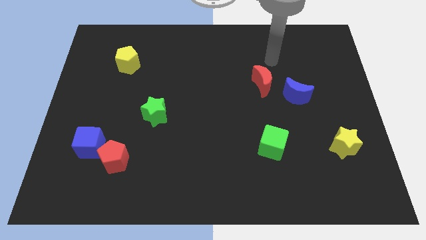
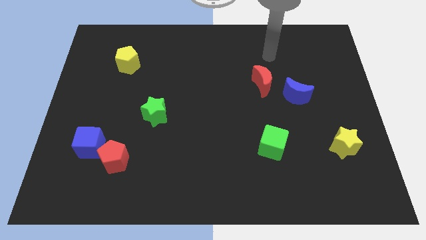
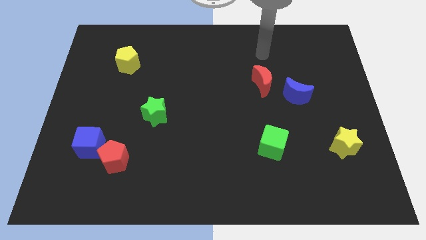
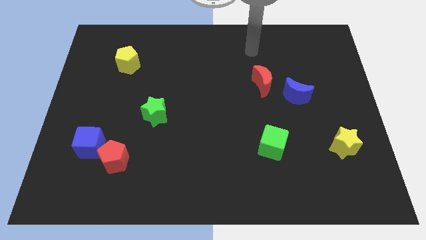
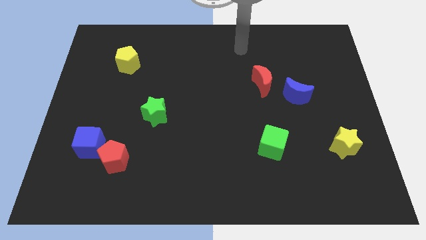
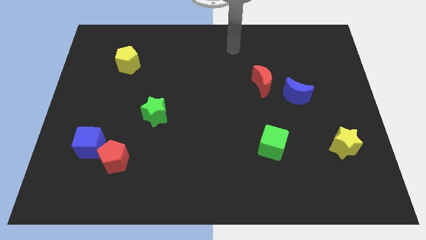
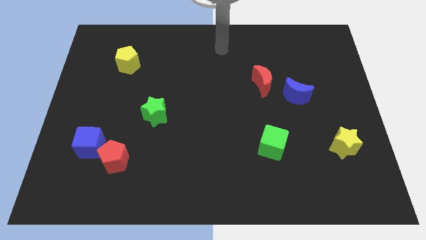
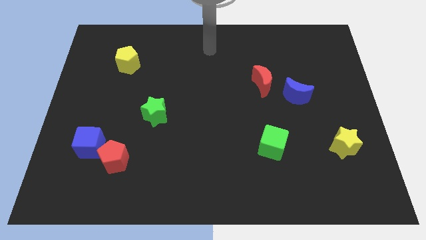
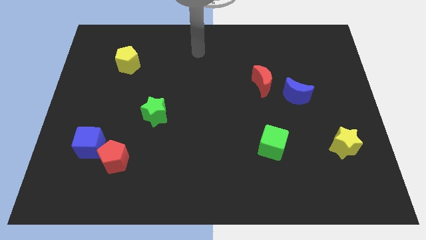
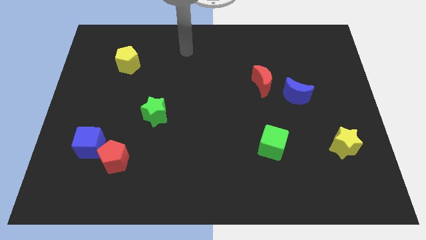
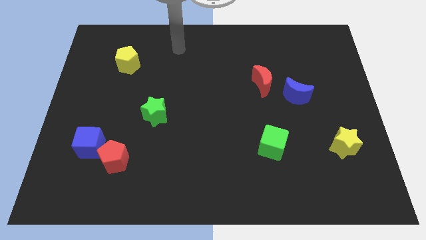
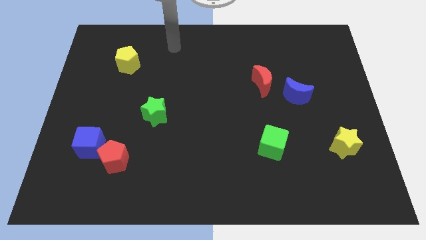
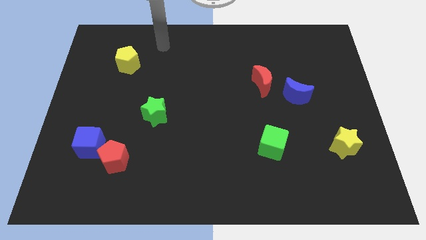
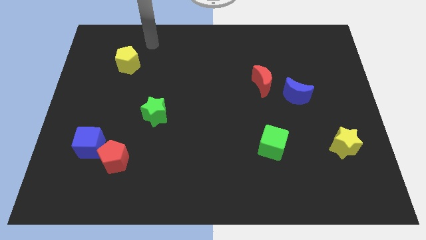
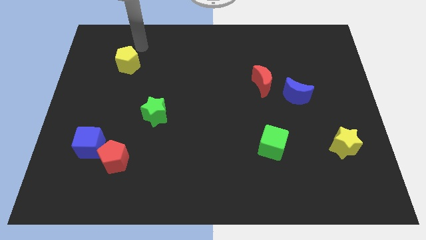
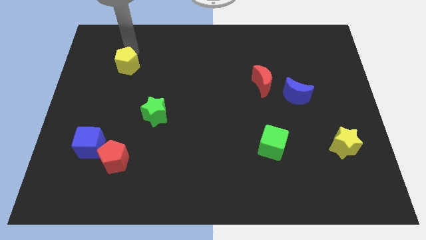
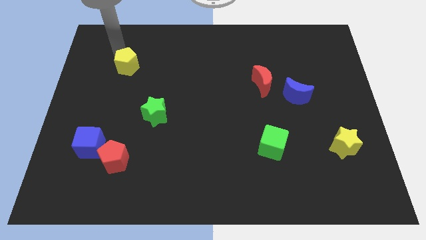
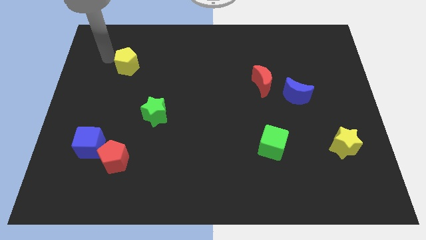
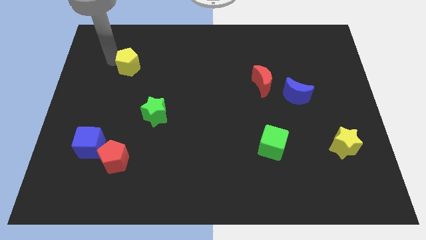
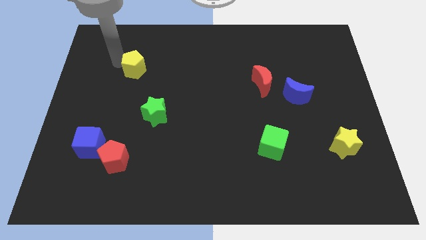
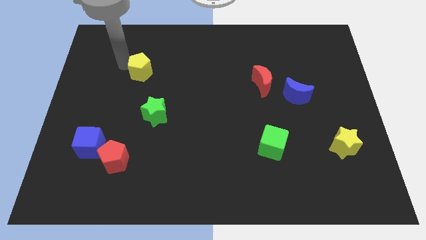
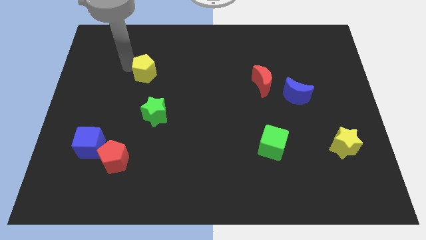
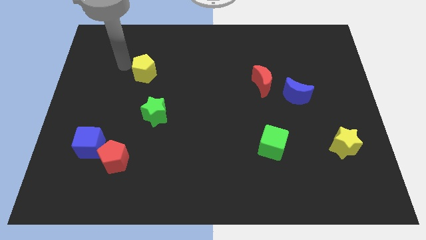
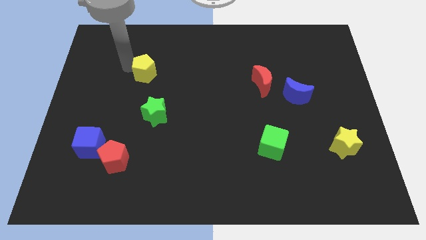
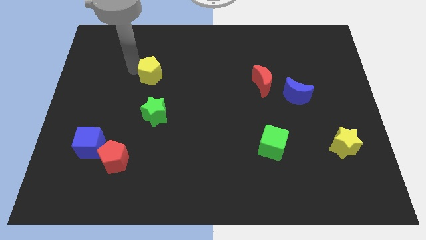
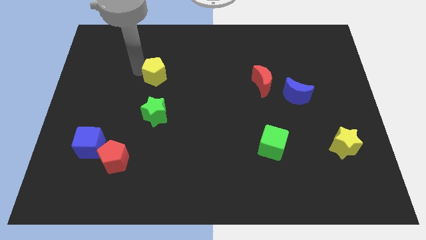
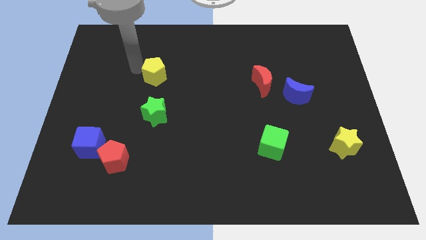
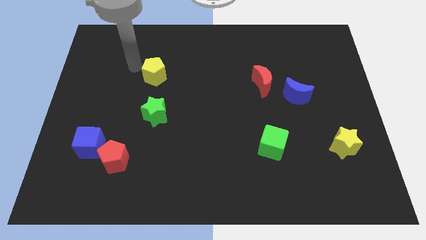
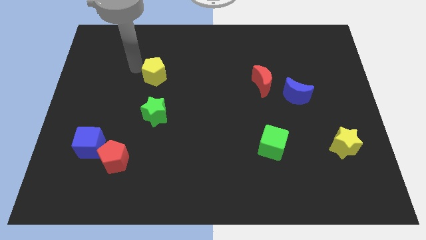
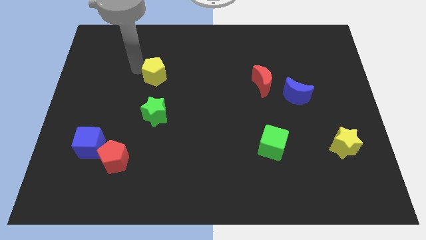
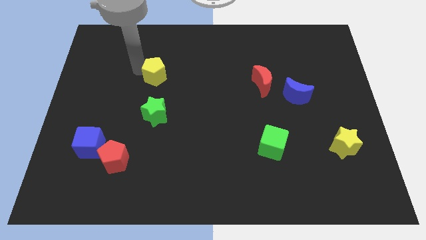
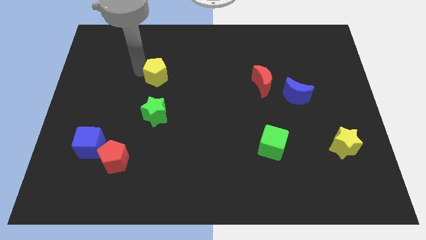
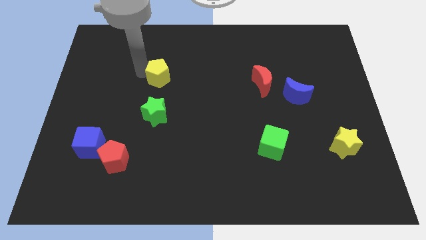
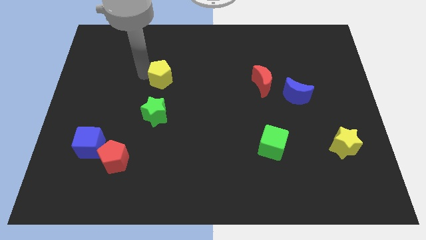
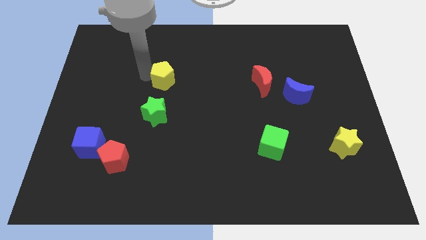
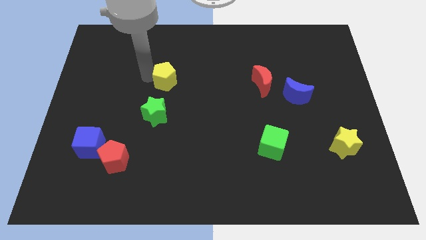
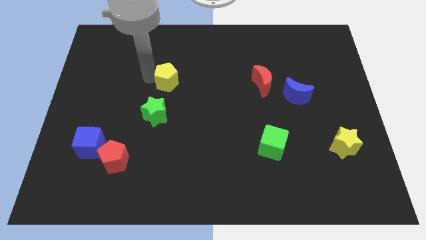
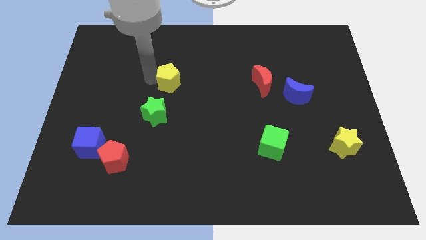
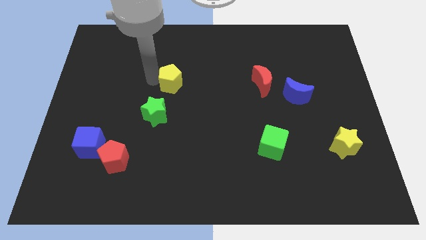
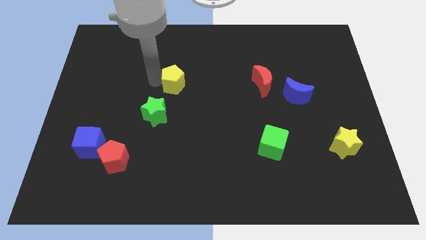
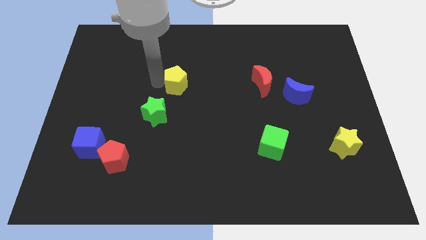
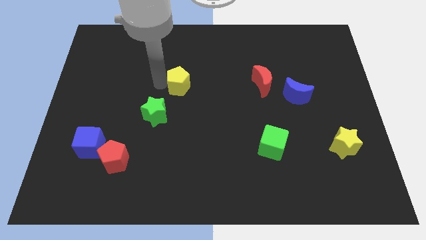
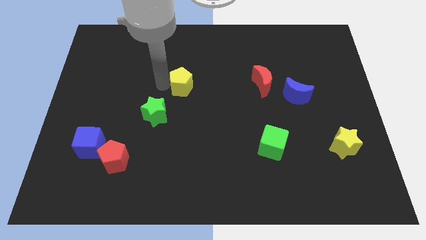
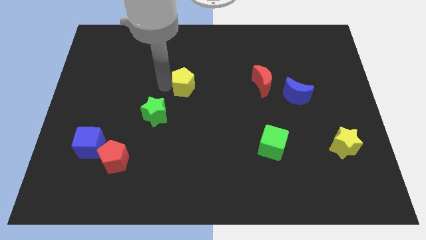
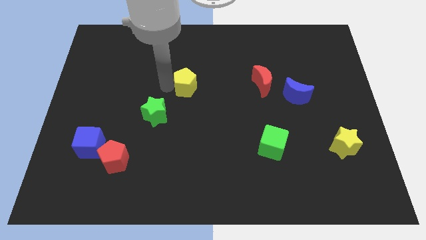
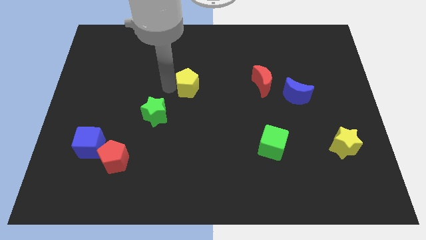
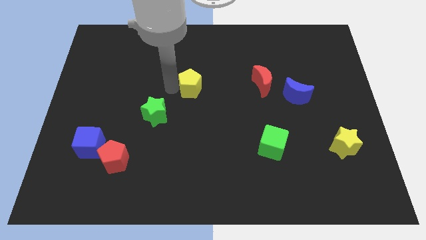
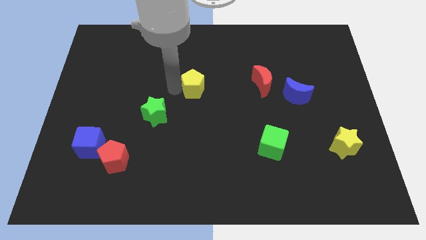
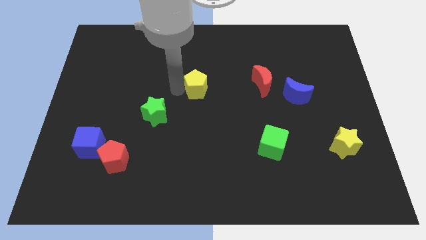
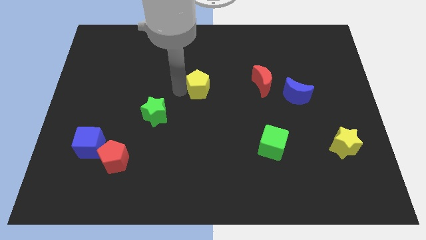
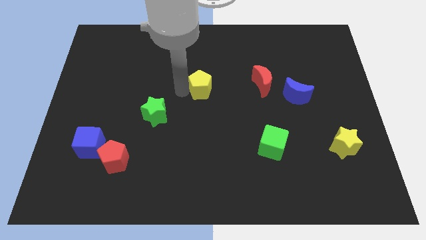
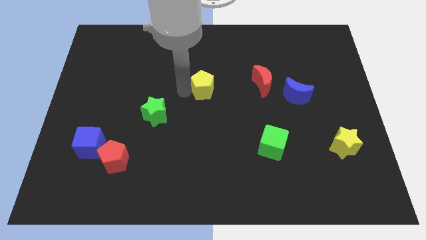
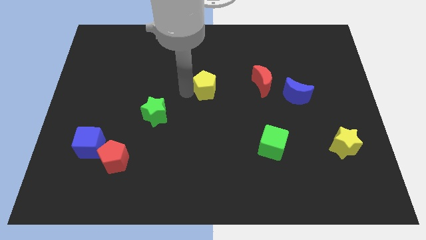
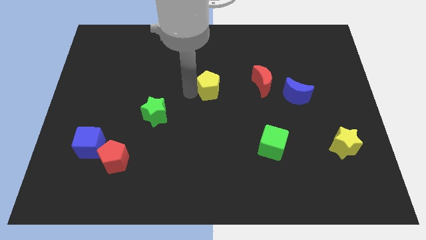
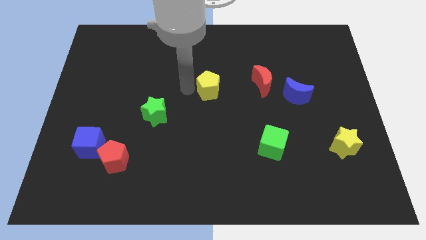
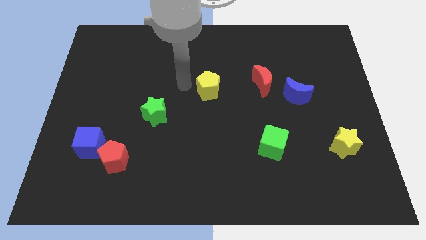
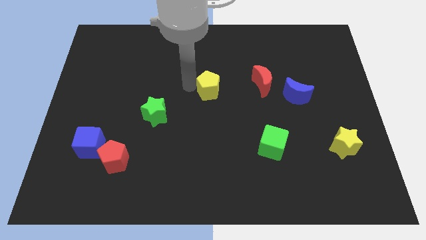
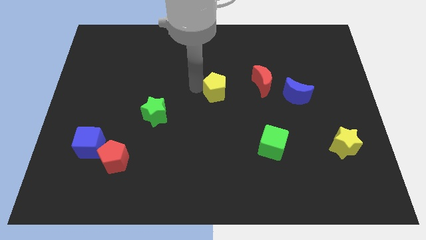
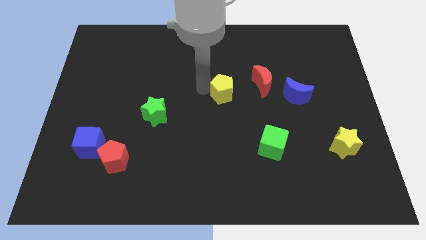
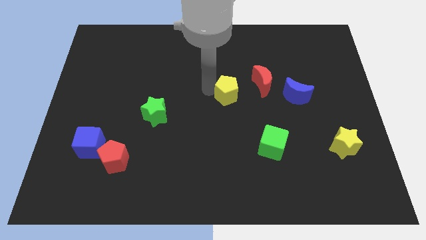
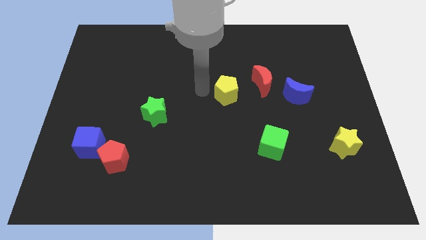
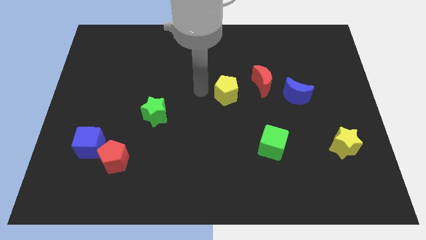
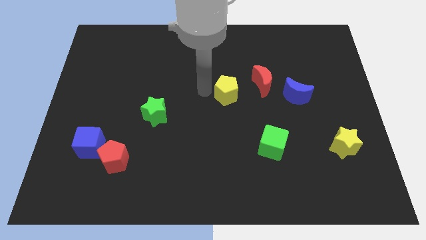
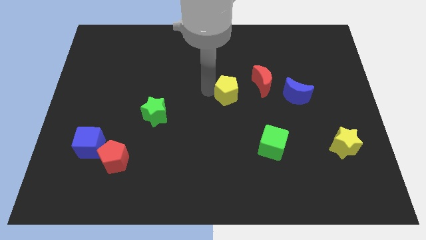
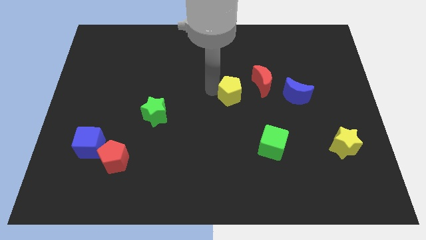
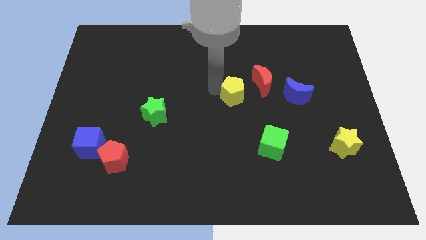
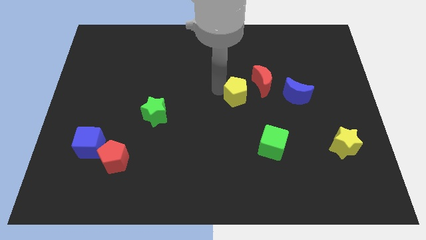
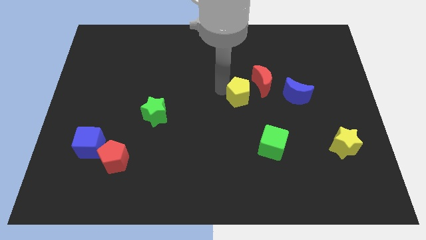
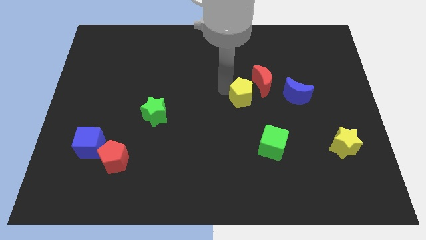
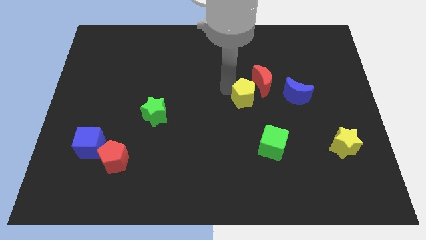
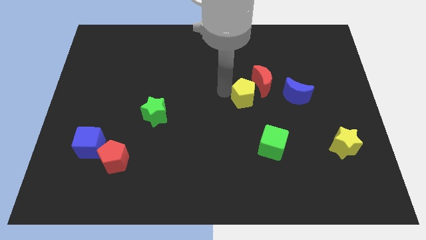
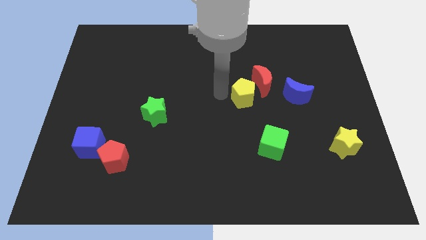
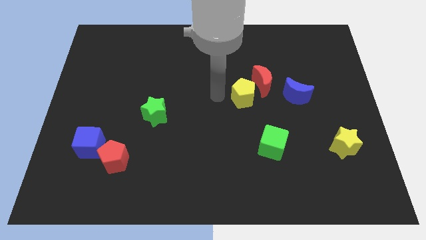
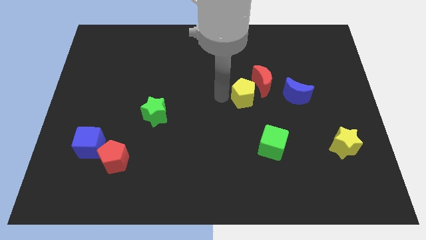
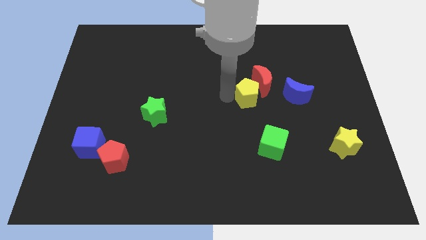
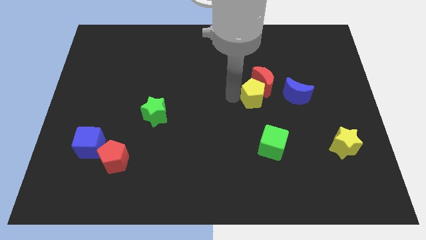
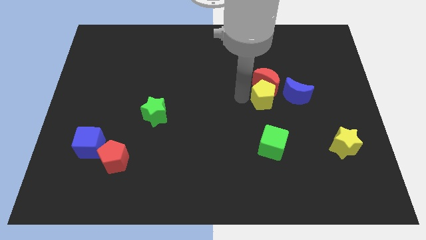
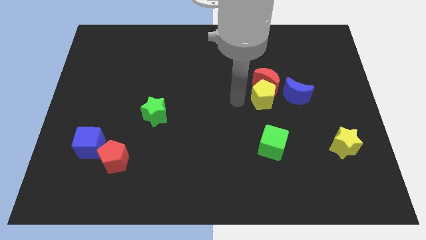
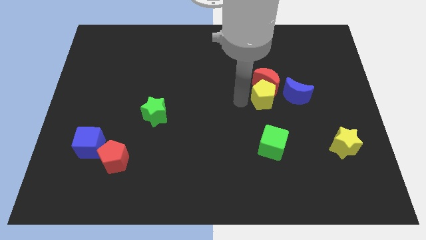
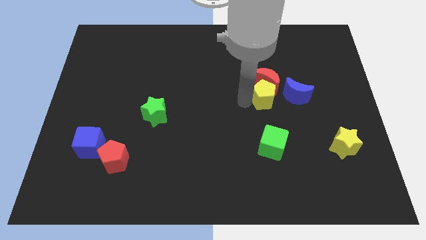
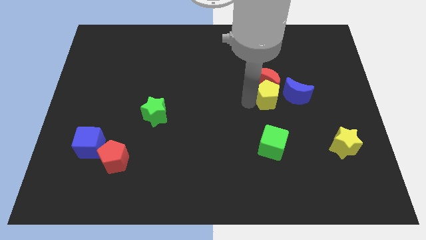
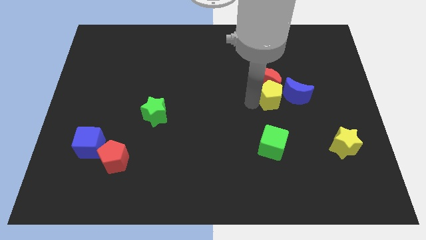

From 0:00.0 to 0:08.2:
move the yellow pentagon to the blue moon

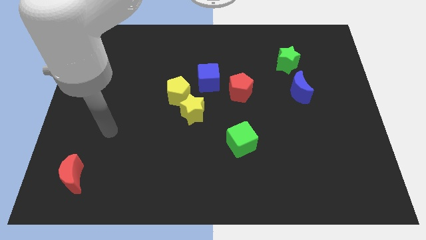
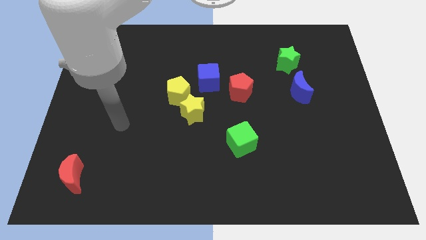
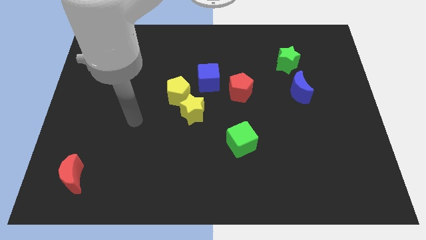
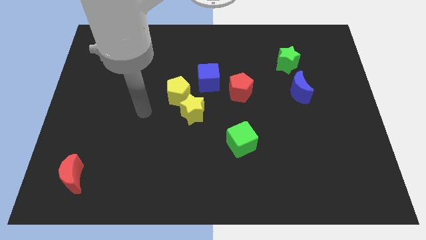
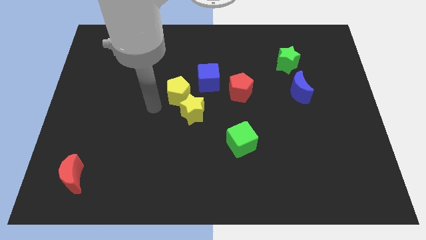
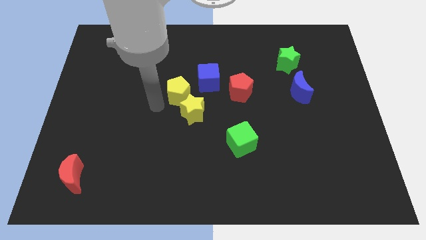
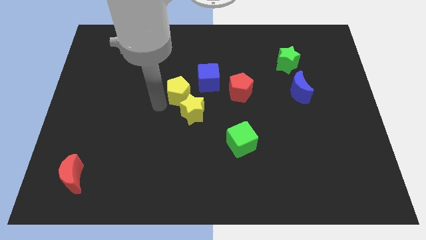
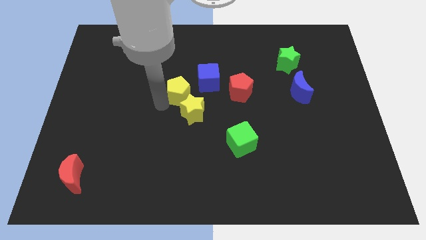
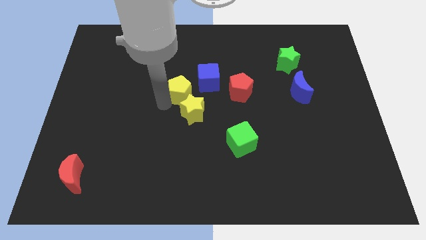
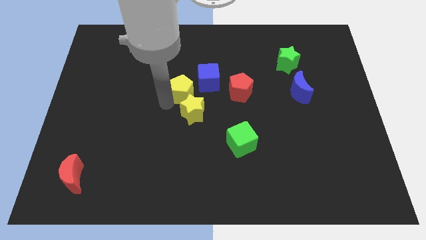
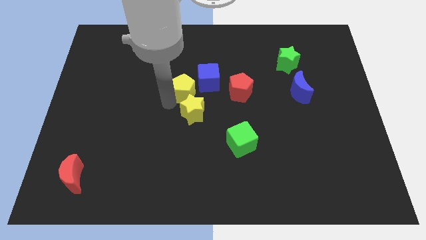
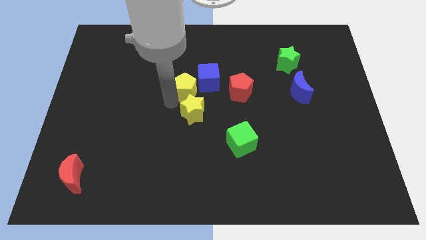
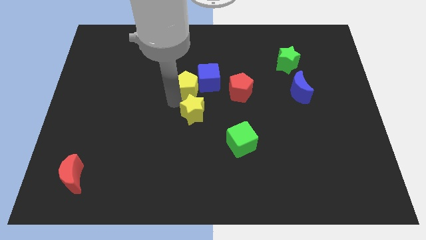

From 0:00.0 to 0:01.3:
move the yellow pentagon close to the blue cube
